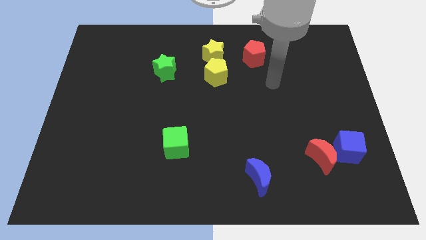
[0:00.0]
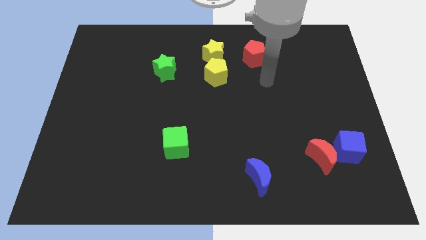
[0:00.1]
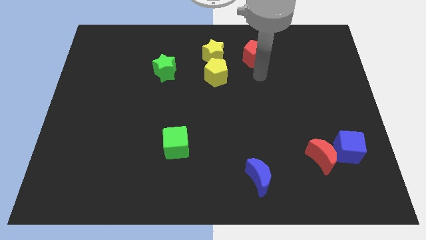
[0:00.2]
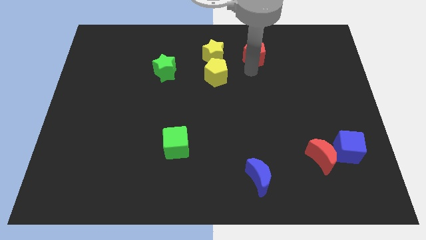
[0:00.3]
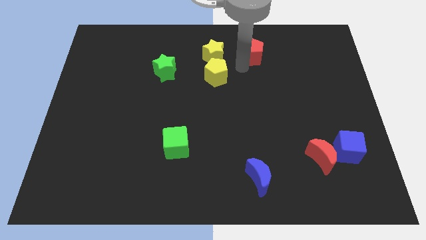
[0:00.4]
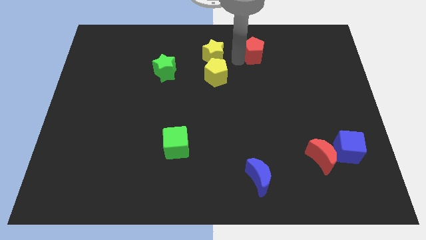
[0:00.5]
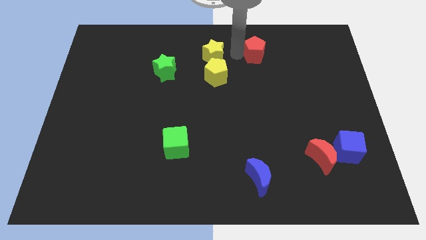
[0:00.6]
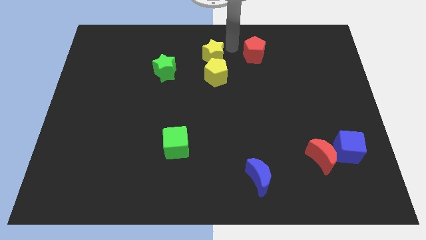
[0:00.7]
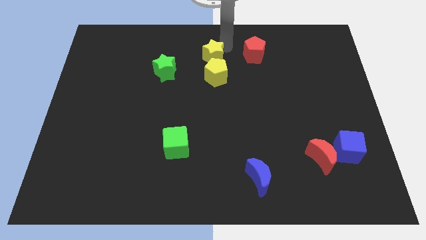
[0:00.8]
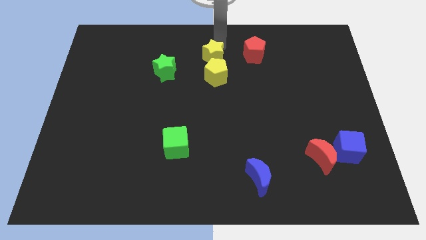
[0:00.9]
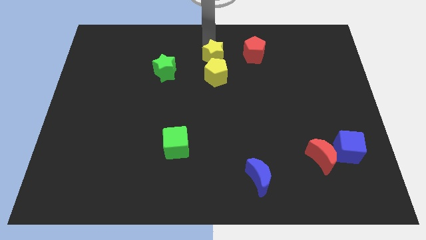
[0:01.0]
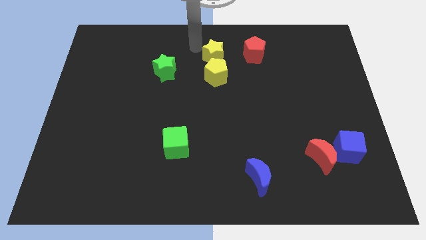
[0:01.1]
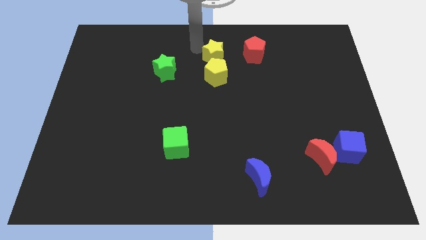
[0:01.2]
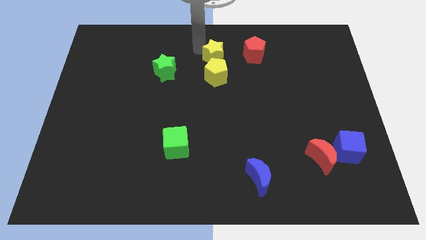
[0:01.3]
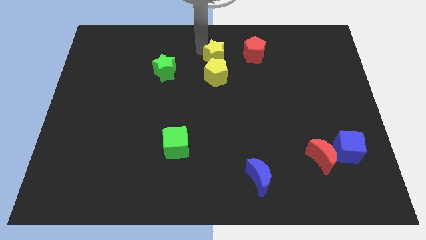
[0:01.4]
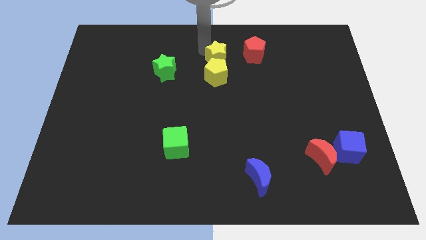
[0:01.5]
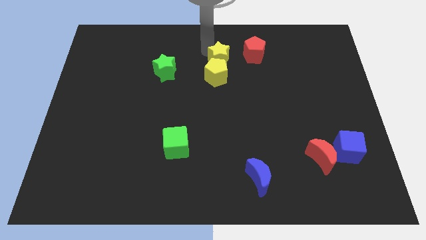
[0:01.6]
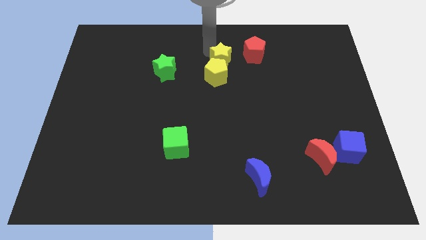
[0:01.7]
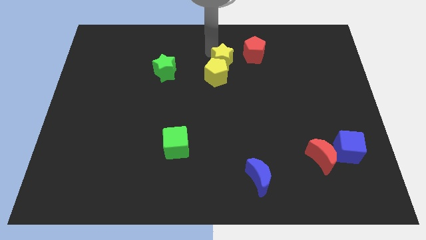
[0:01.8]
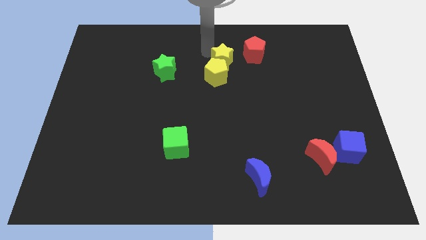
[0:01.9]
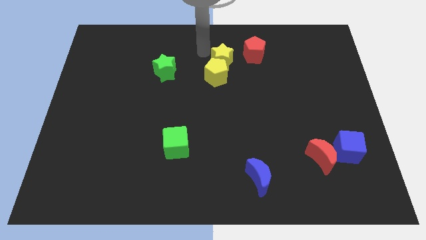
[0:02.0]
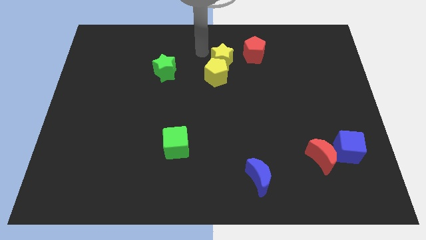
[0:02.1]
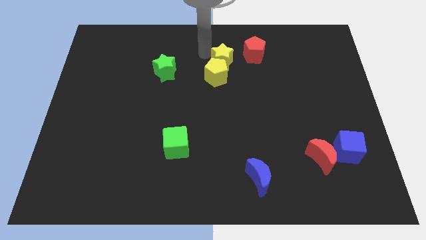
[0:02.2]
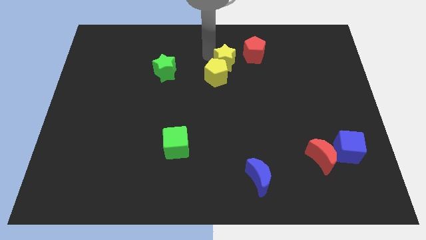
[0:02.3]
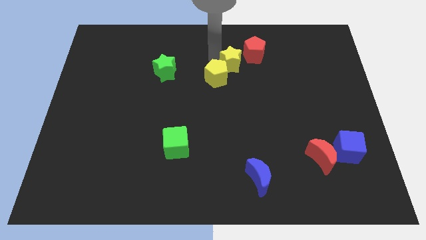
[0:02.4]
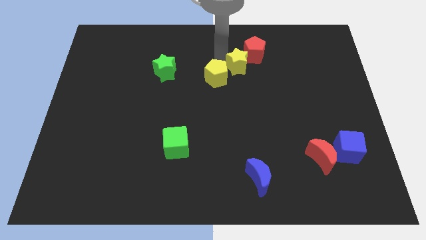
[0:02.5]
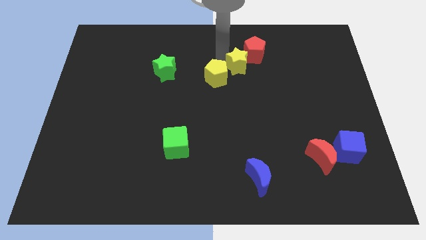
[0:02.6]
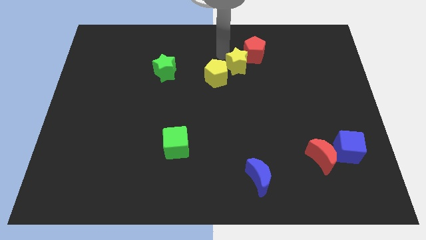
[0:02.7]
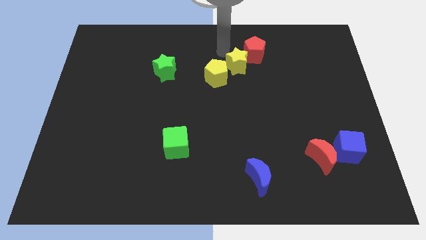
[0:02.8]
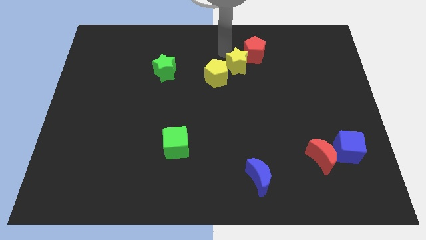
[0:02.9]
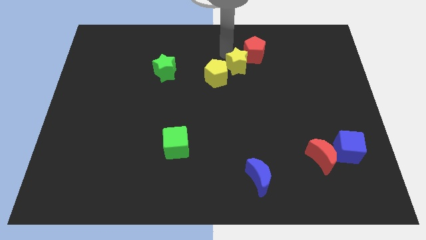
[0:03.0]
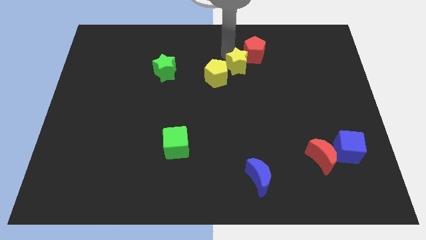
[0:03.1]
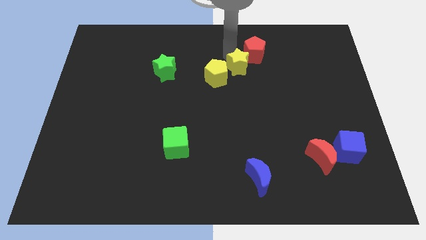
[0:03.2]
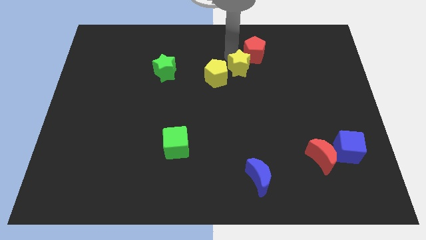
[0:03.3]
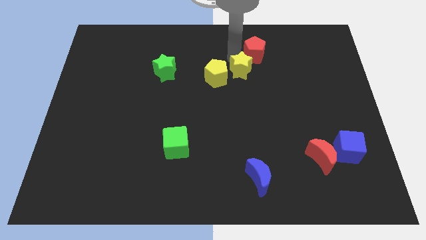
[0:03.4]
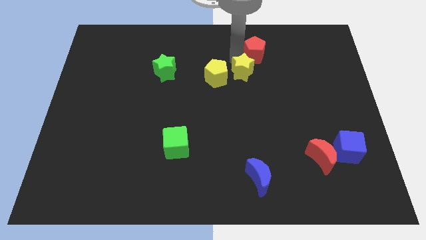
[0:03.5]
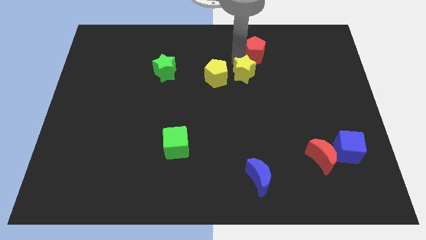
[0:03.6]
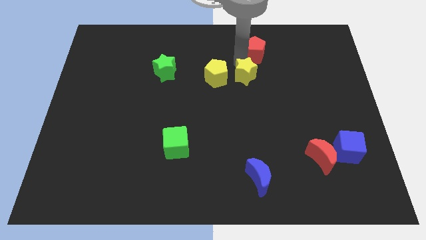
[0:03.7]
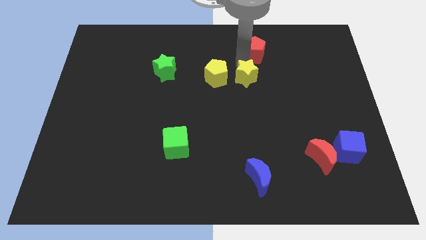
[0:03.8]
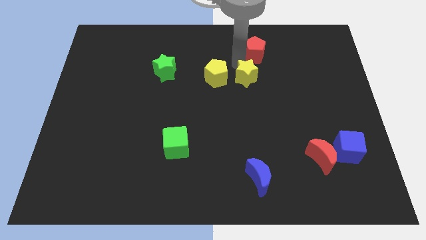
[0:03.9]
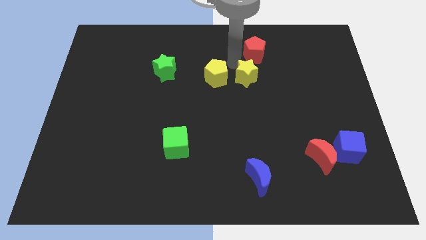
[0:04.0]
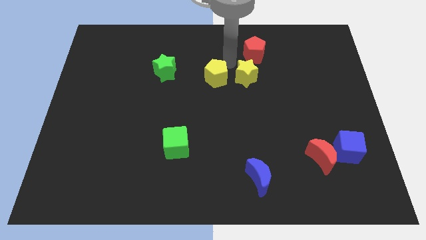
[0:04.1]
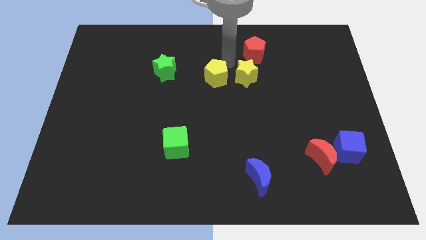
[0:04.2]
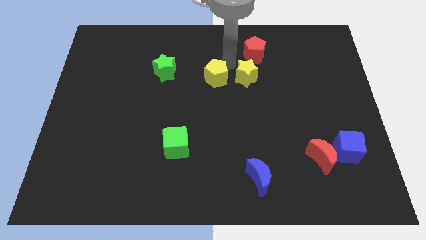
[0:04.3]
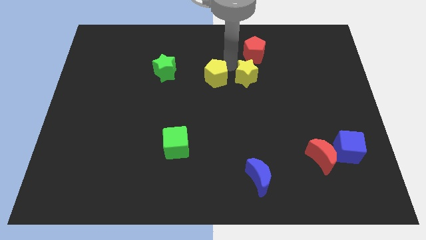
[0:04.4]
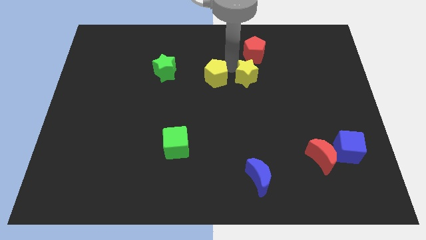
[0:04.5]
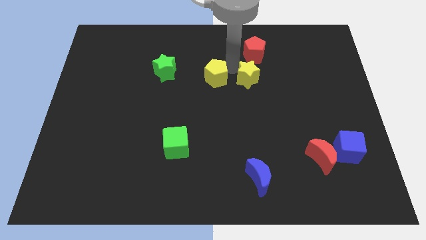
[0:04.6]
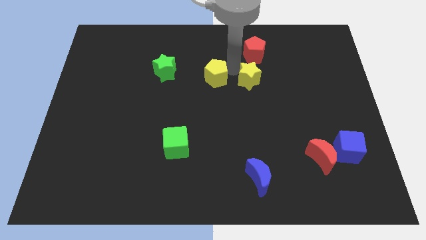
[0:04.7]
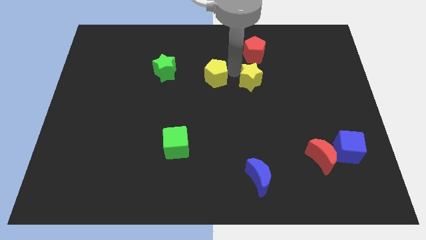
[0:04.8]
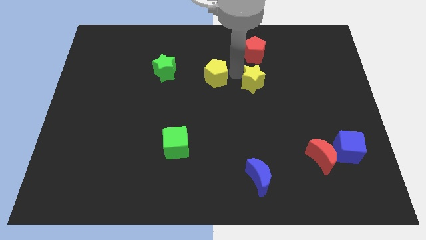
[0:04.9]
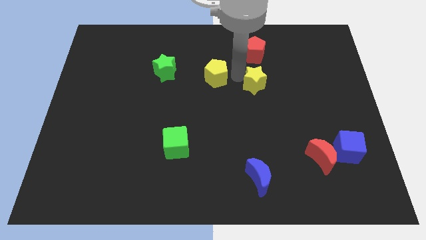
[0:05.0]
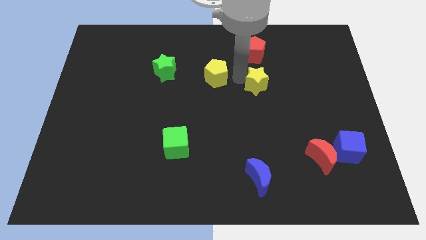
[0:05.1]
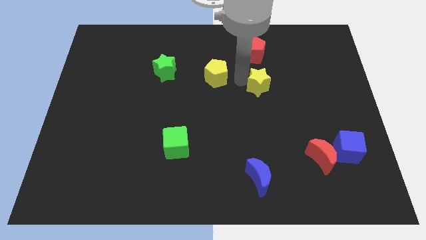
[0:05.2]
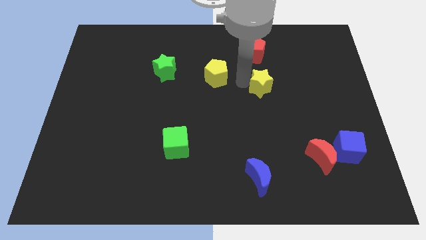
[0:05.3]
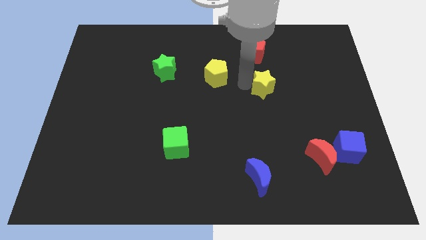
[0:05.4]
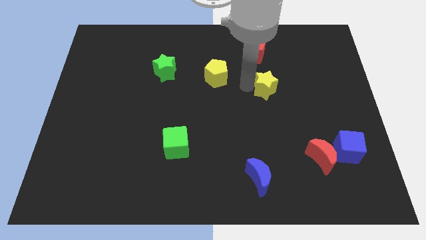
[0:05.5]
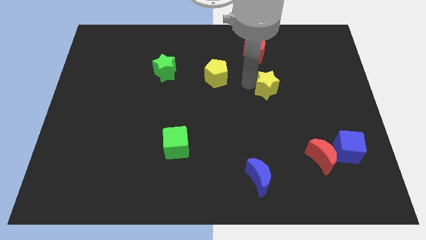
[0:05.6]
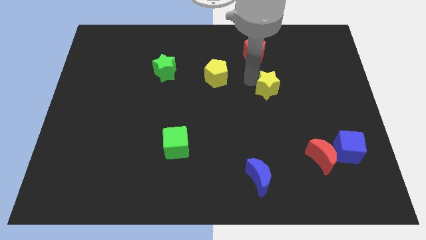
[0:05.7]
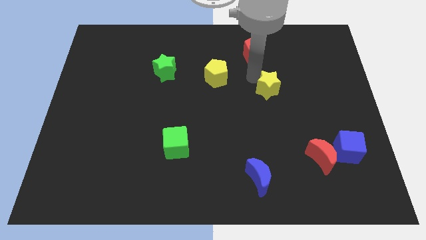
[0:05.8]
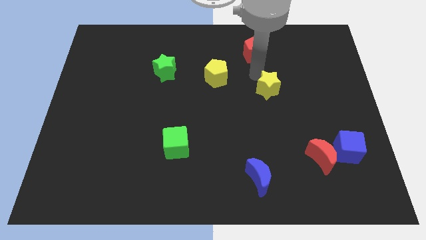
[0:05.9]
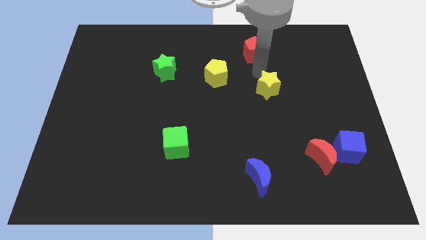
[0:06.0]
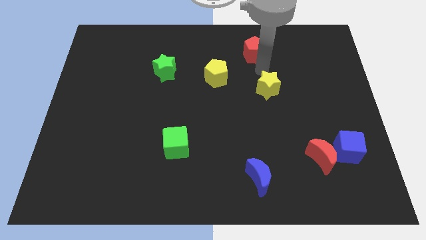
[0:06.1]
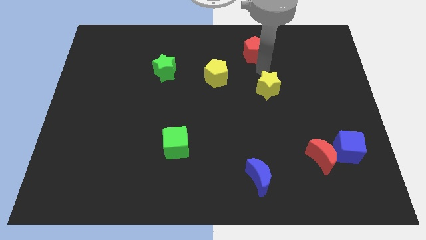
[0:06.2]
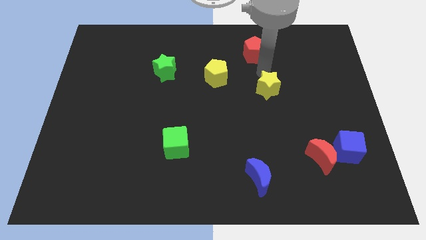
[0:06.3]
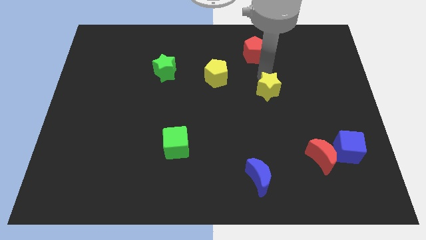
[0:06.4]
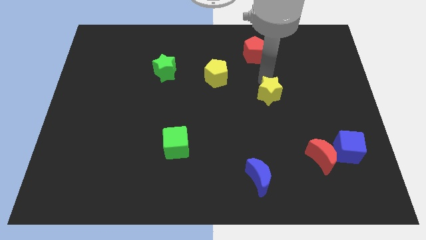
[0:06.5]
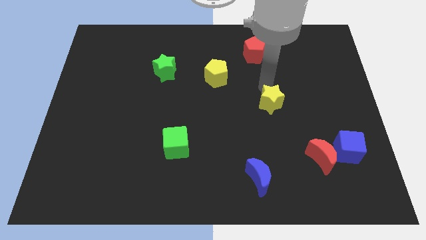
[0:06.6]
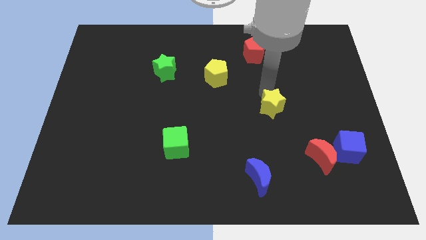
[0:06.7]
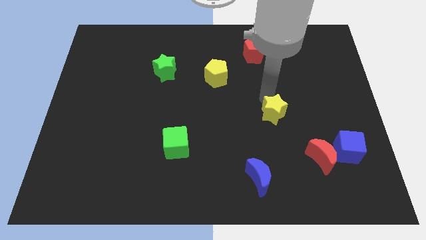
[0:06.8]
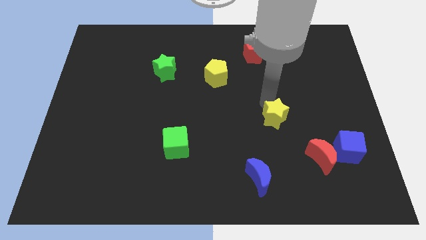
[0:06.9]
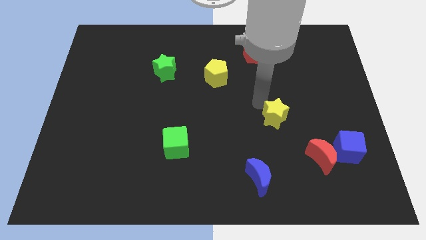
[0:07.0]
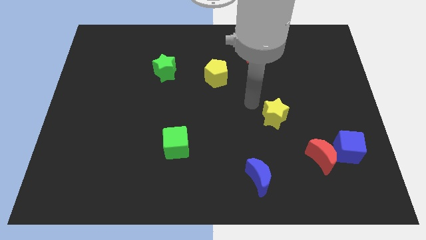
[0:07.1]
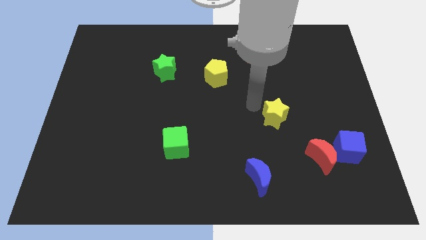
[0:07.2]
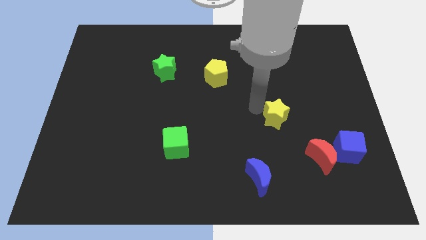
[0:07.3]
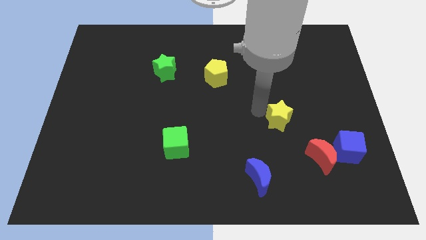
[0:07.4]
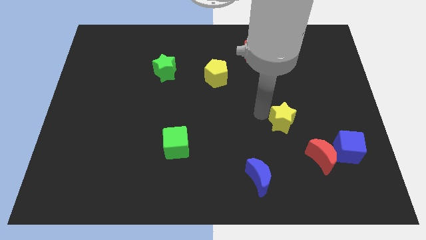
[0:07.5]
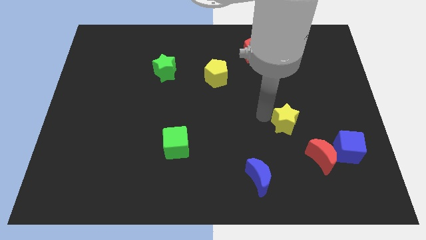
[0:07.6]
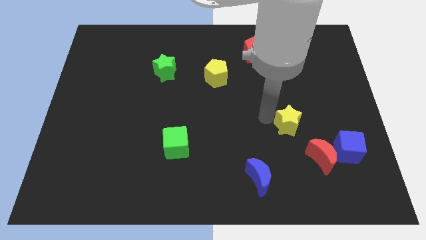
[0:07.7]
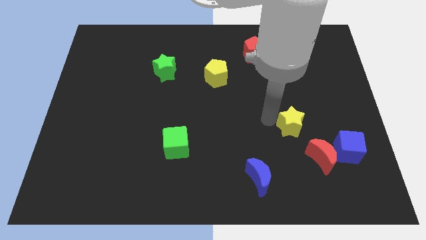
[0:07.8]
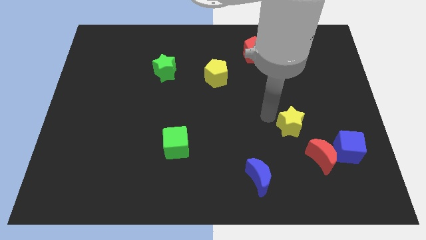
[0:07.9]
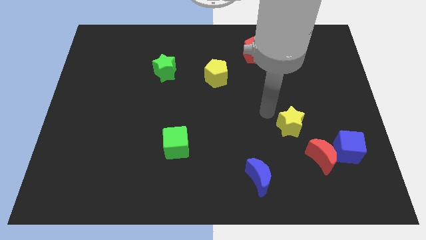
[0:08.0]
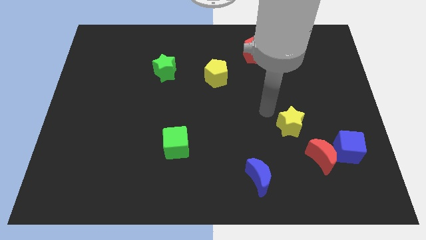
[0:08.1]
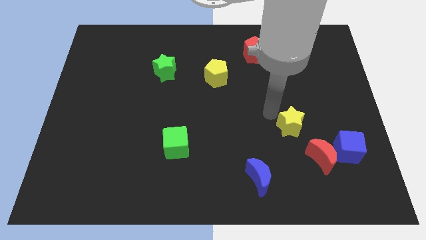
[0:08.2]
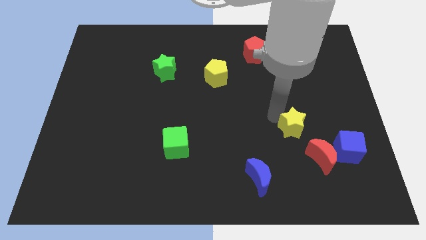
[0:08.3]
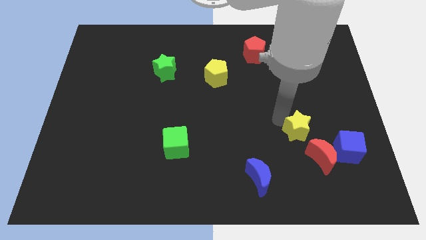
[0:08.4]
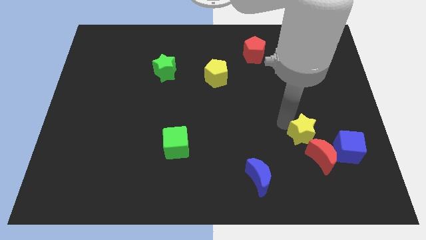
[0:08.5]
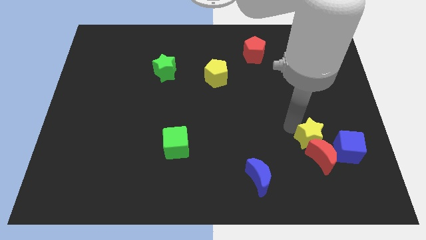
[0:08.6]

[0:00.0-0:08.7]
move the yellow star close to the red moon
